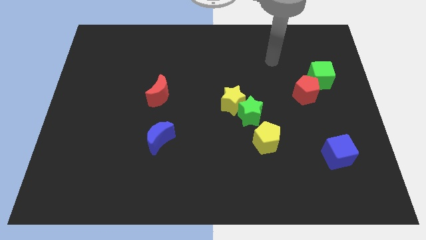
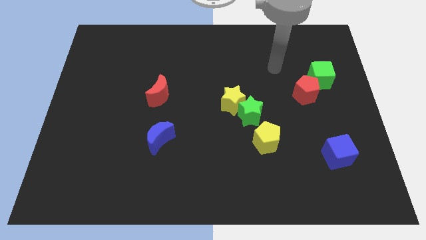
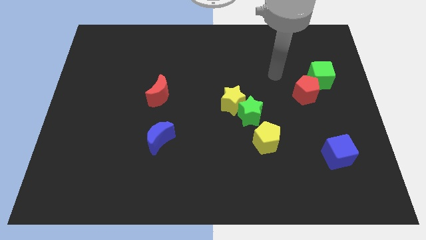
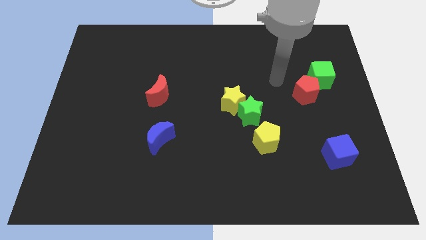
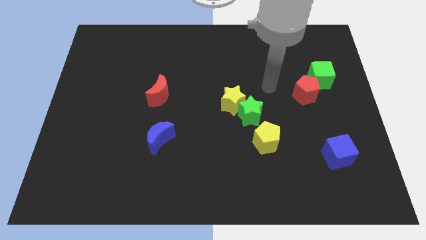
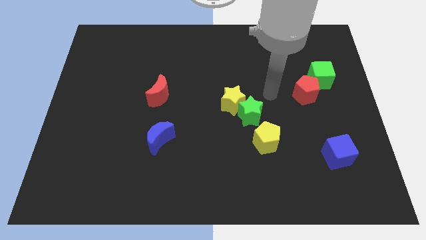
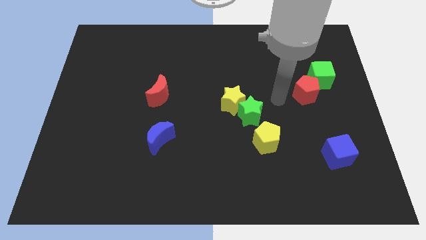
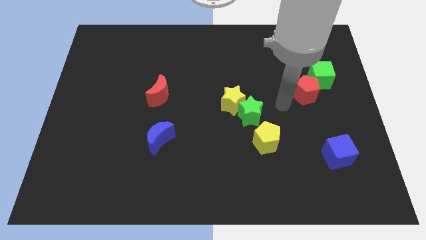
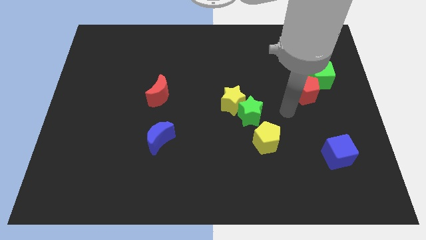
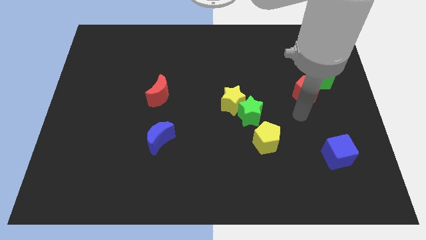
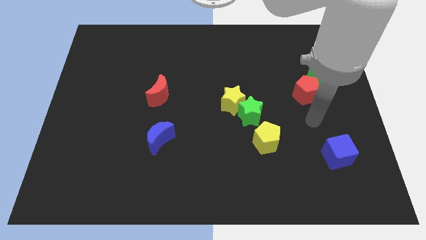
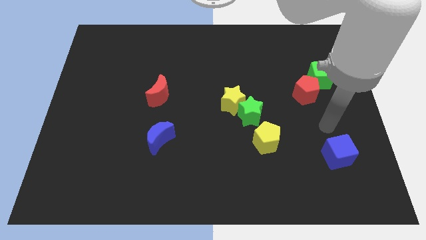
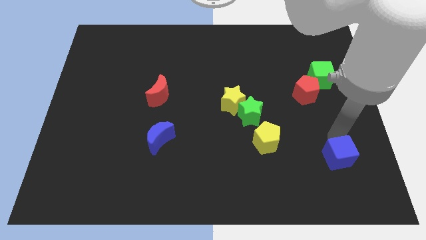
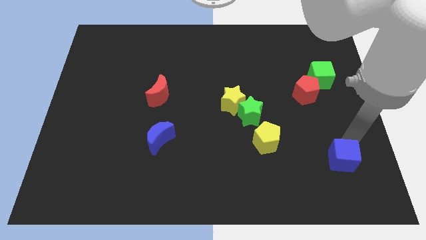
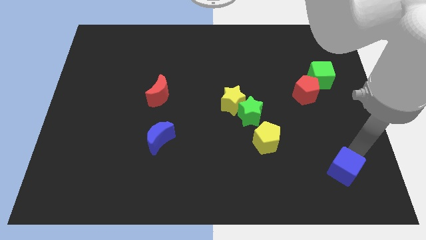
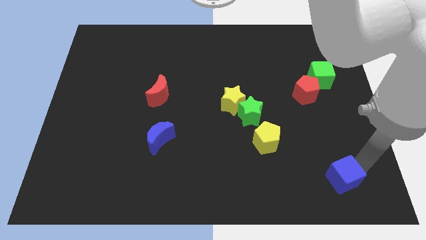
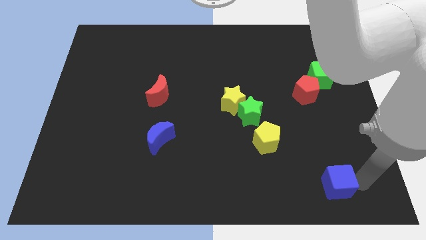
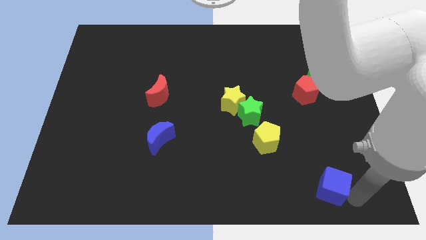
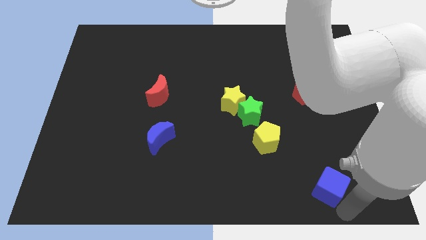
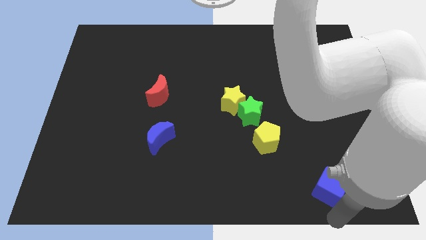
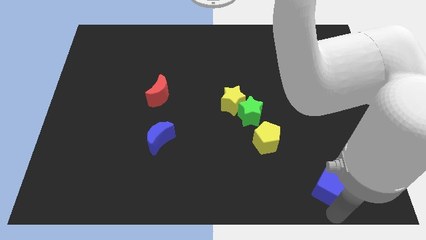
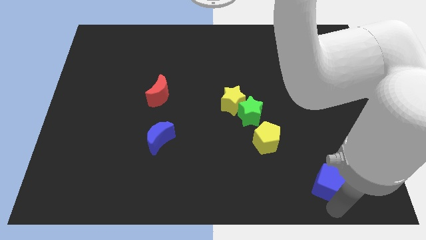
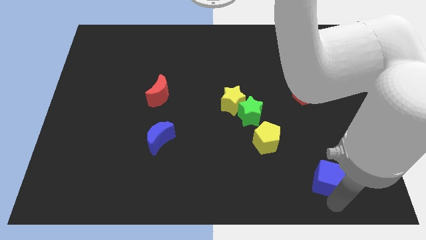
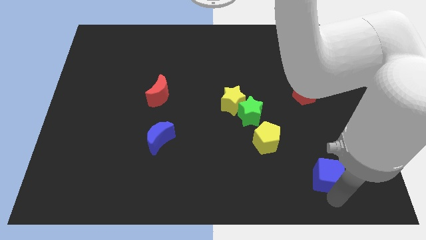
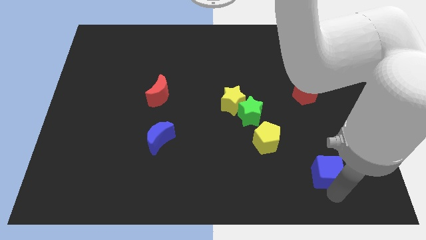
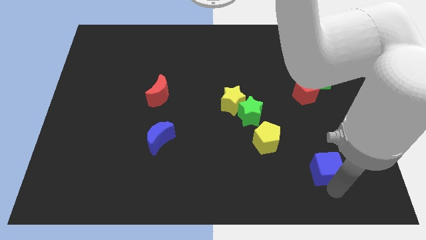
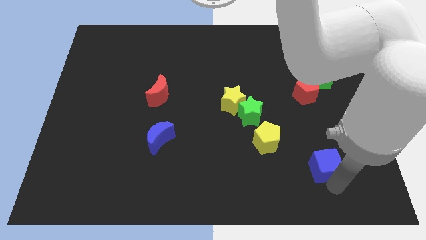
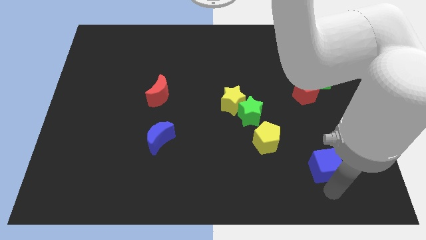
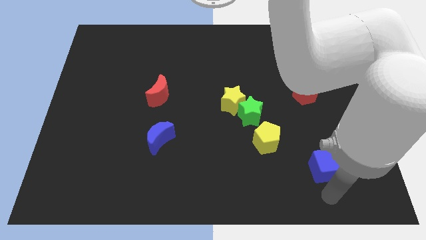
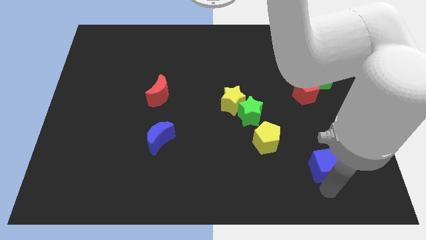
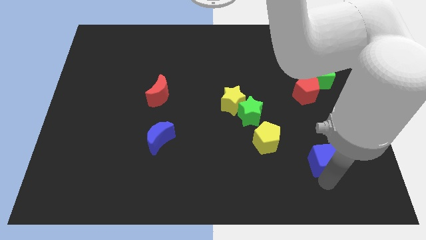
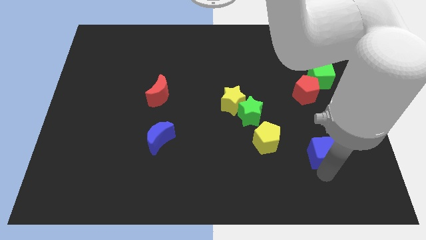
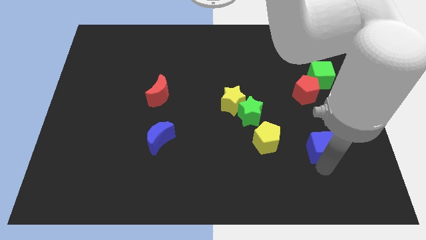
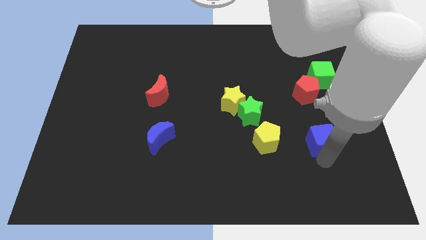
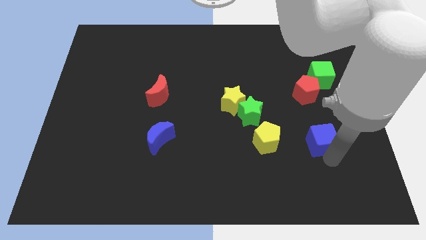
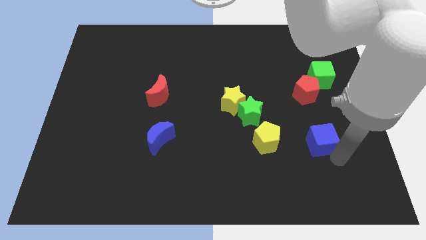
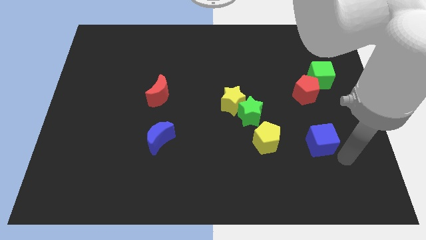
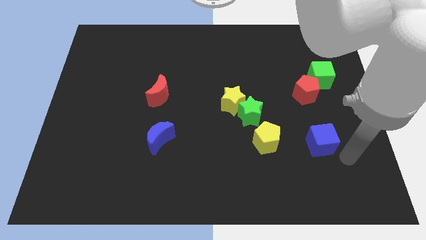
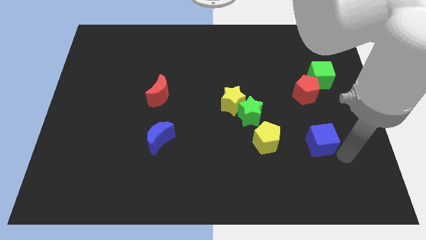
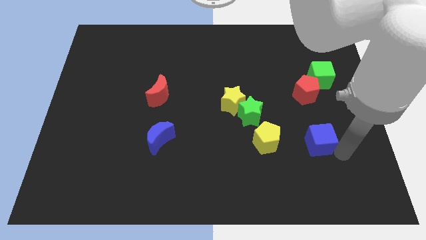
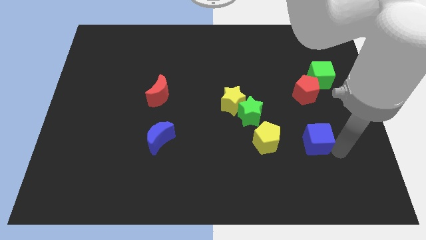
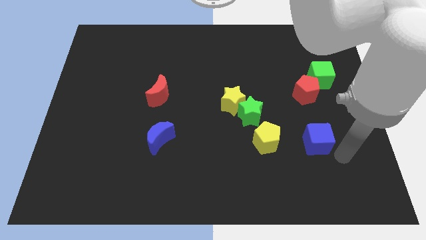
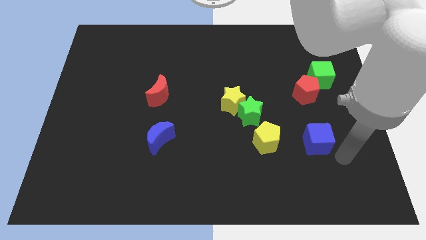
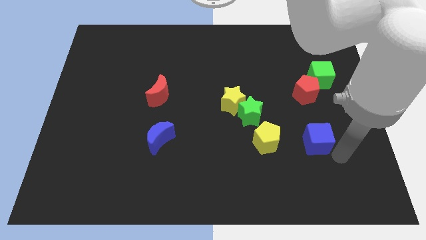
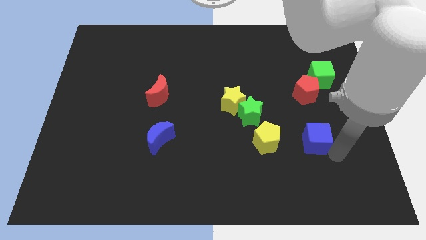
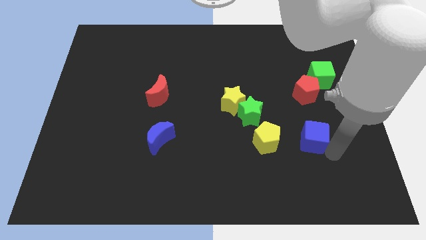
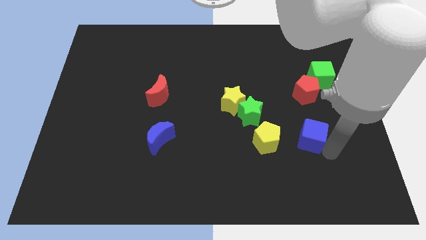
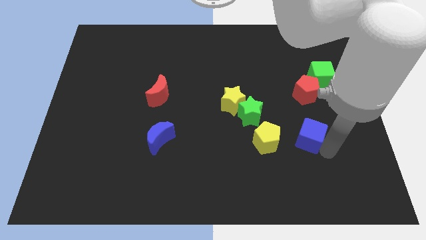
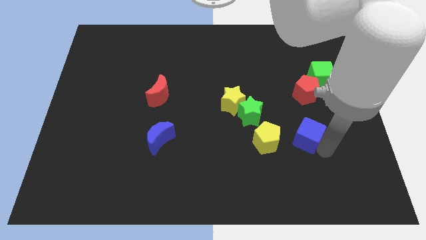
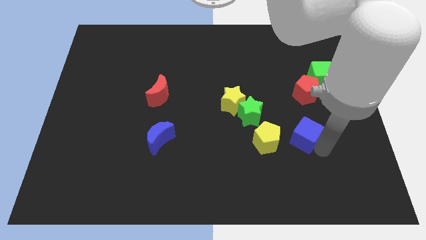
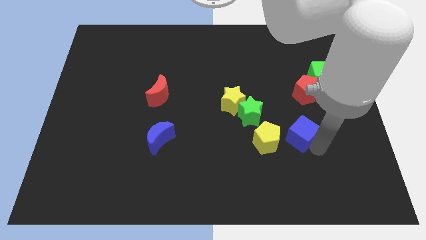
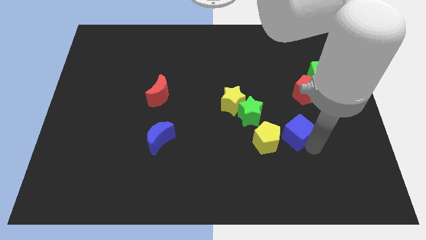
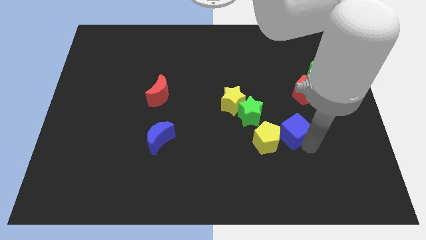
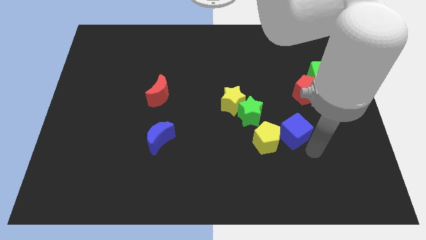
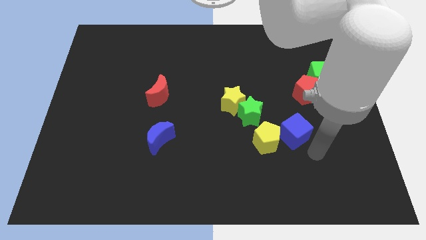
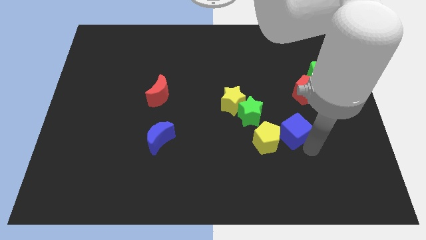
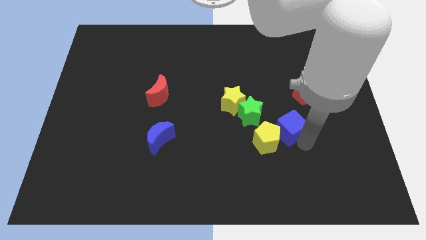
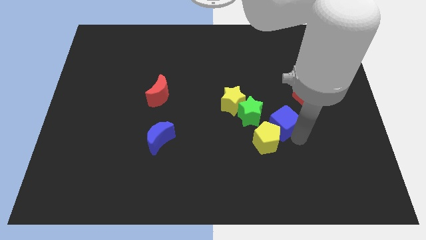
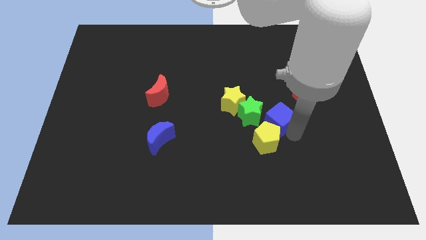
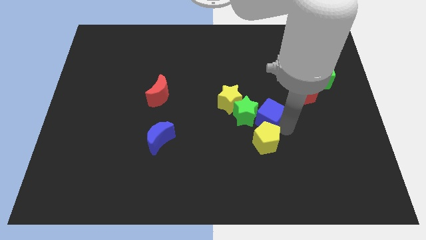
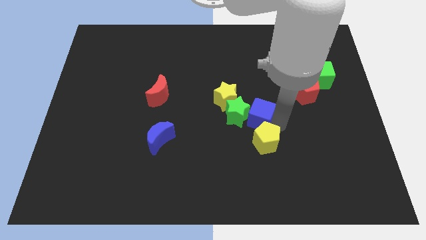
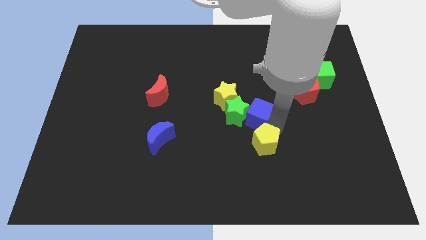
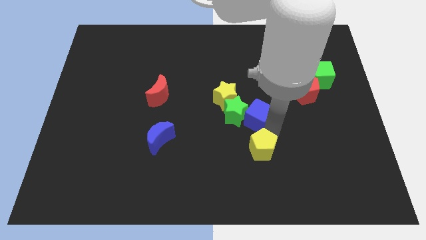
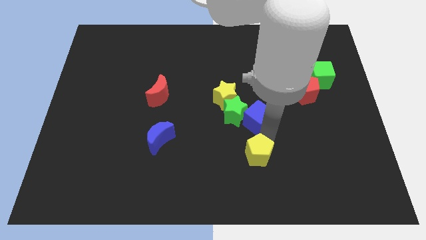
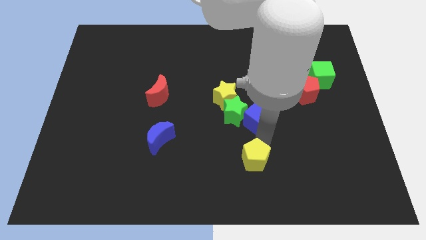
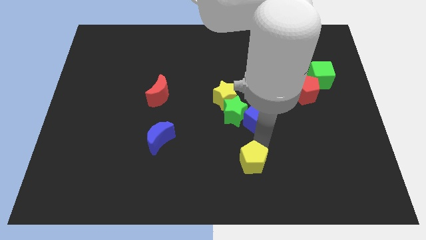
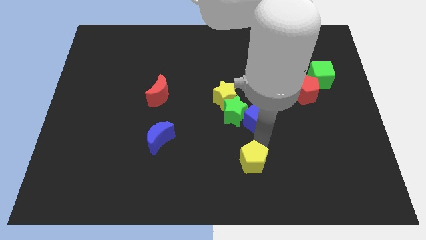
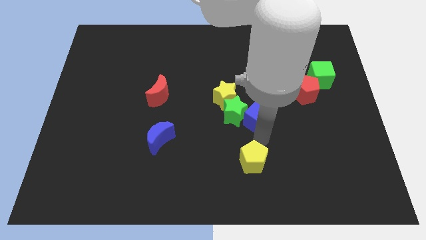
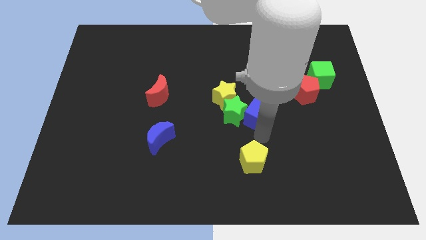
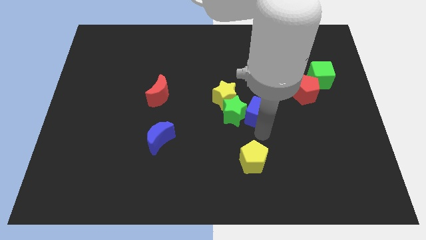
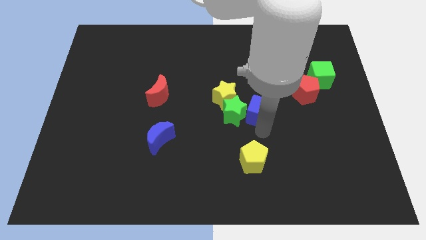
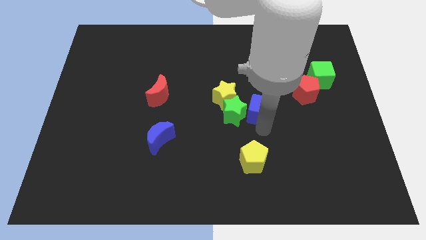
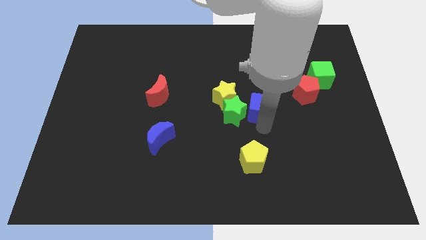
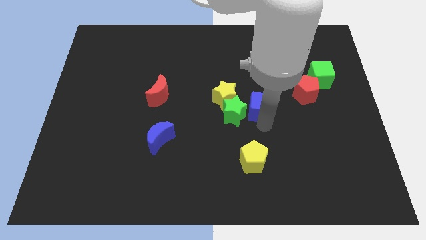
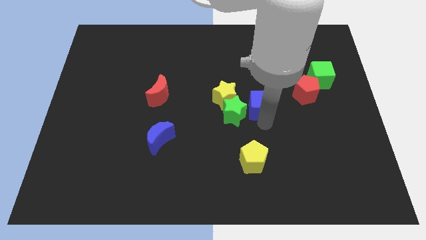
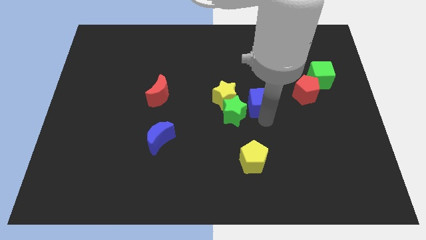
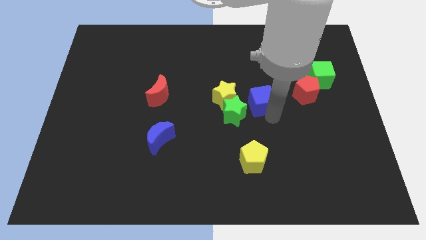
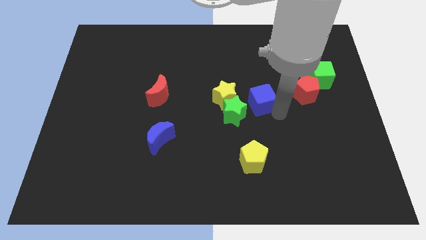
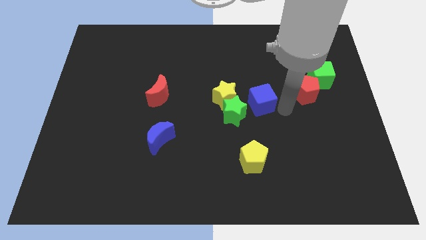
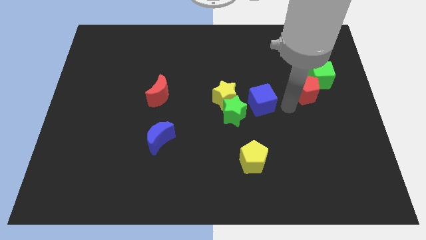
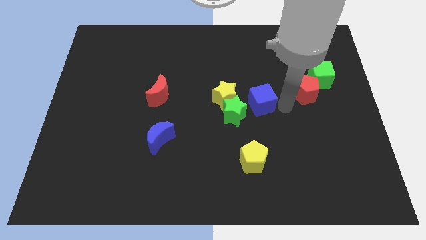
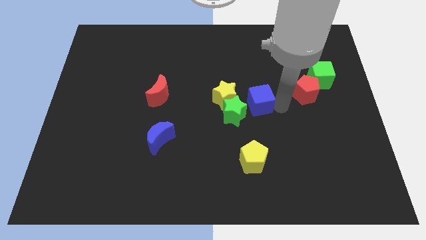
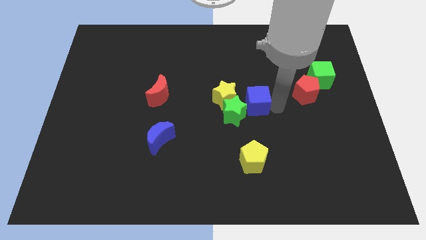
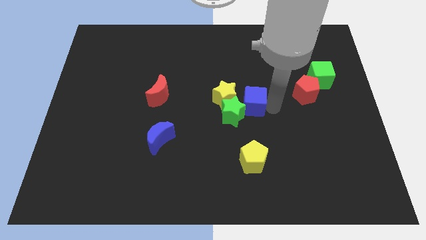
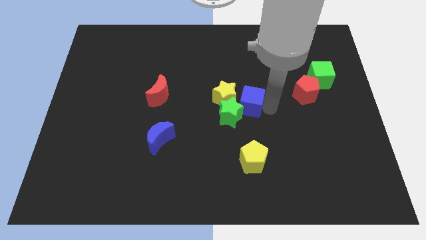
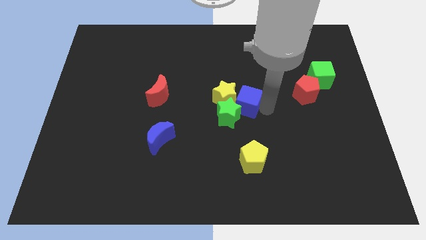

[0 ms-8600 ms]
push the blue cube to the yellow star
